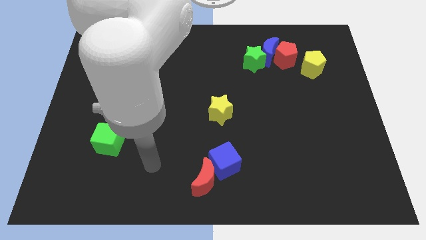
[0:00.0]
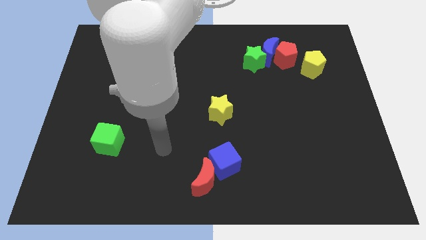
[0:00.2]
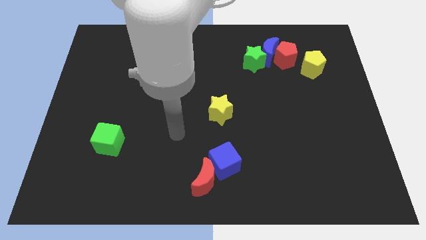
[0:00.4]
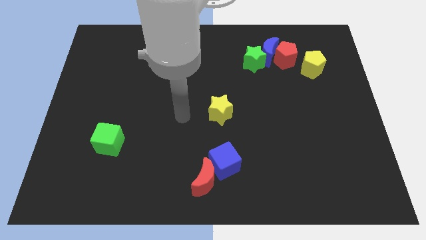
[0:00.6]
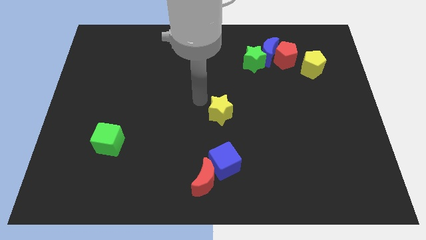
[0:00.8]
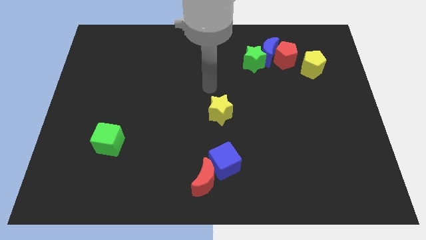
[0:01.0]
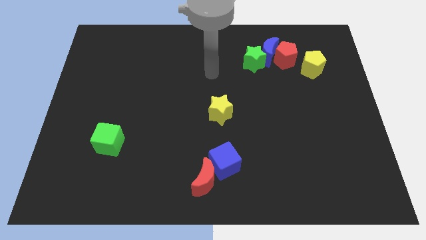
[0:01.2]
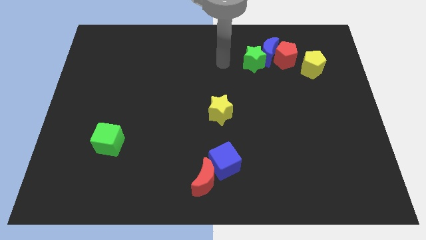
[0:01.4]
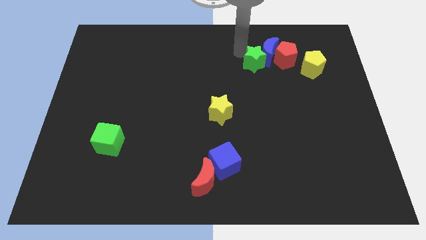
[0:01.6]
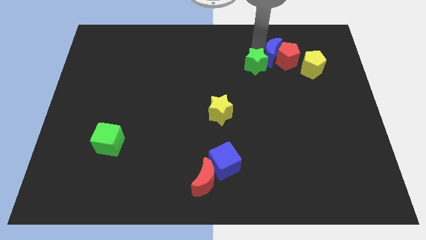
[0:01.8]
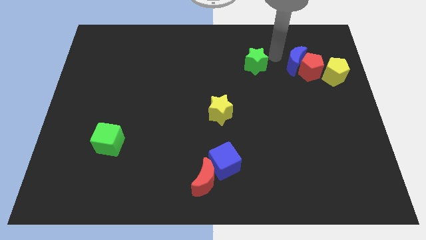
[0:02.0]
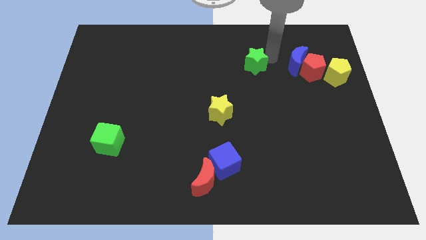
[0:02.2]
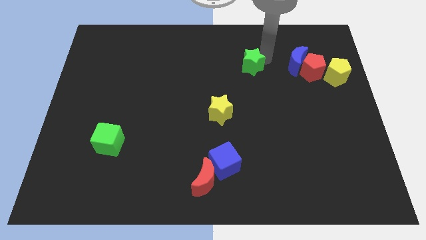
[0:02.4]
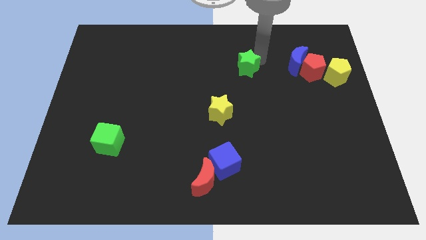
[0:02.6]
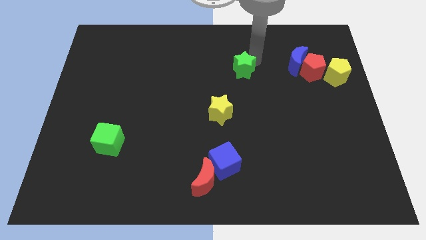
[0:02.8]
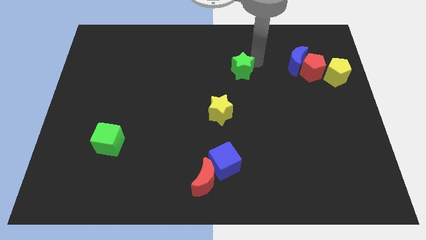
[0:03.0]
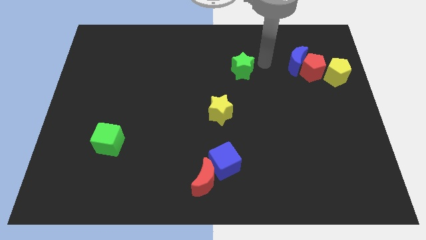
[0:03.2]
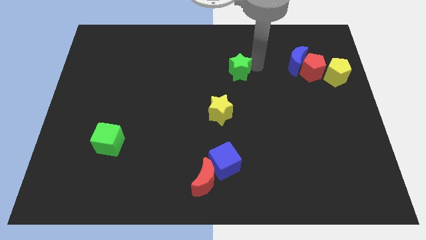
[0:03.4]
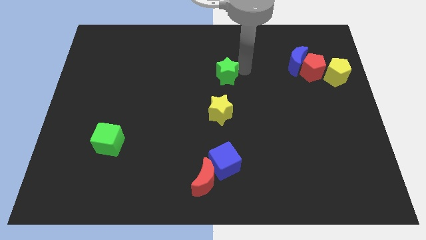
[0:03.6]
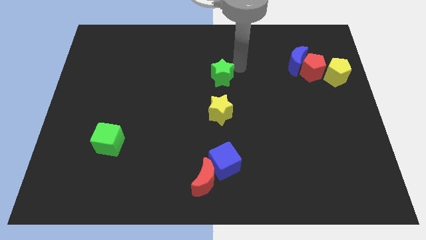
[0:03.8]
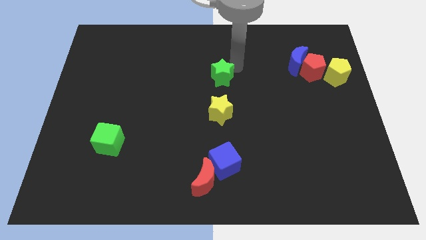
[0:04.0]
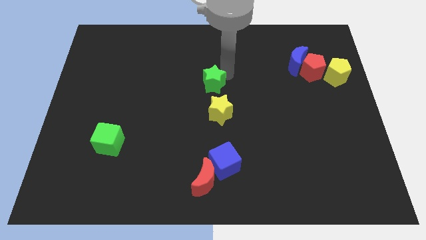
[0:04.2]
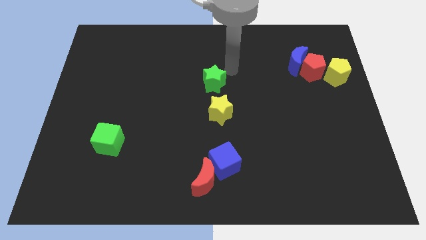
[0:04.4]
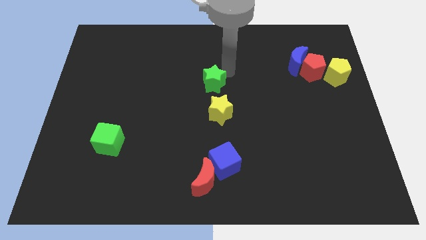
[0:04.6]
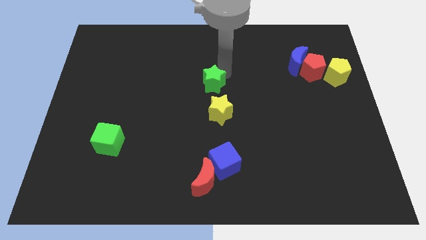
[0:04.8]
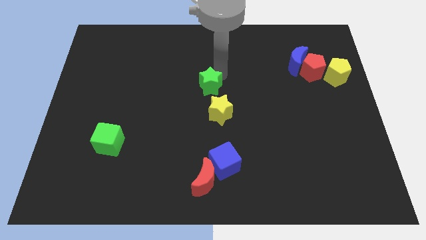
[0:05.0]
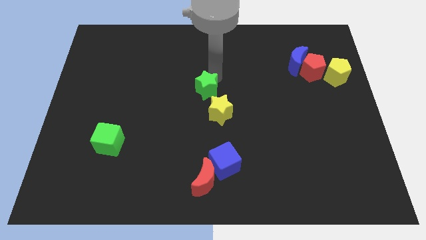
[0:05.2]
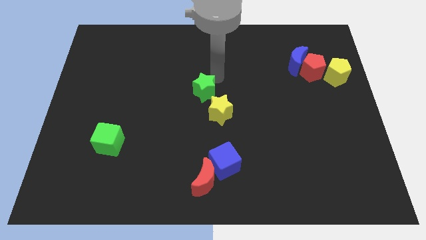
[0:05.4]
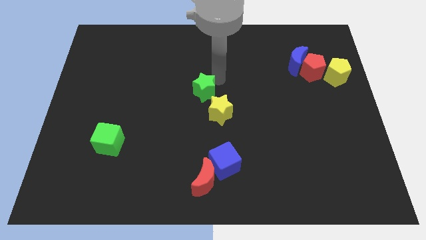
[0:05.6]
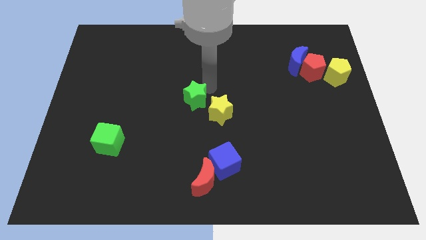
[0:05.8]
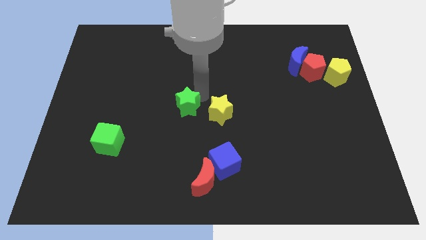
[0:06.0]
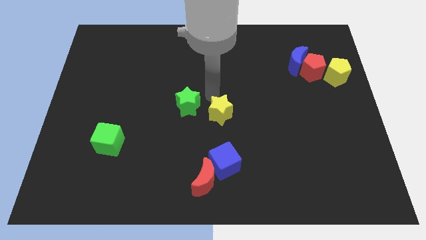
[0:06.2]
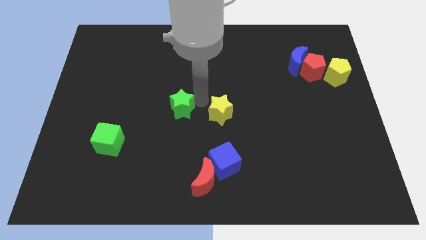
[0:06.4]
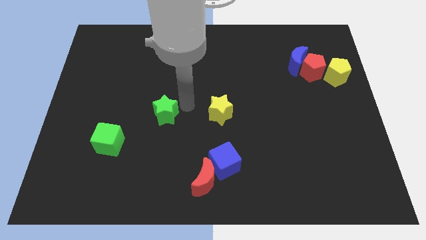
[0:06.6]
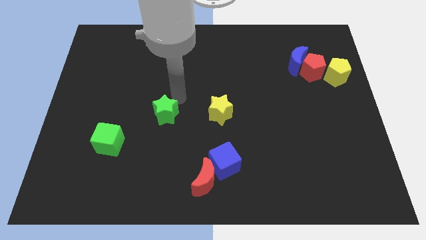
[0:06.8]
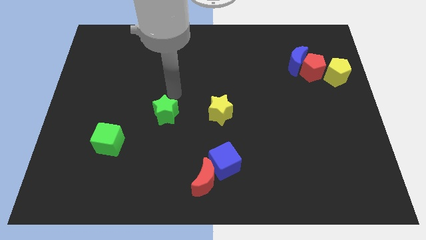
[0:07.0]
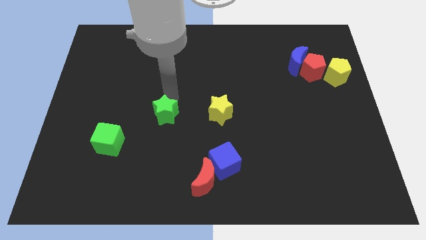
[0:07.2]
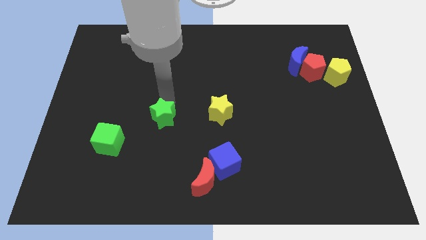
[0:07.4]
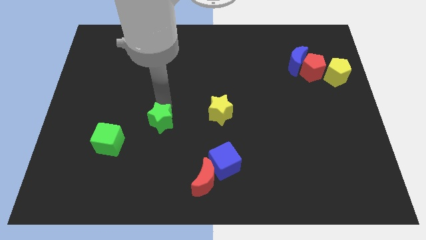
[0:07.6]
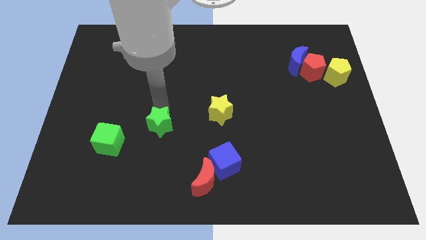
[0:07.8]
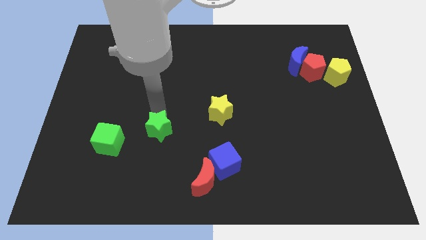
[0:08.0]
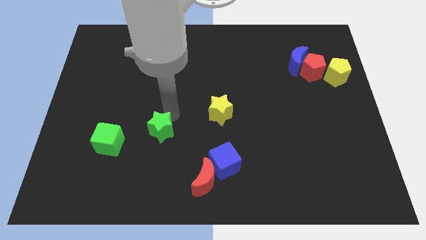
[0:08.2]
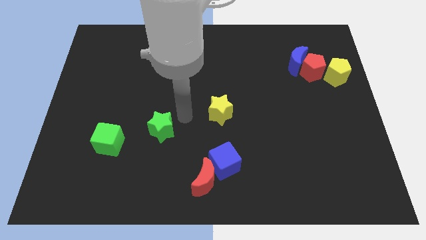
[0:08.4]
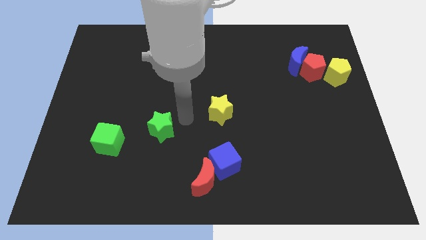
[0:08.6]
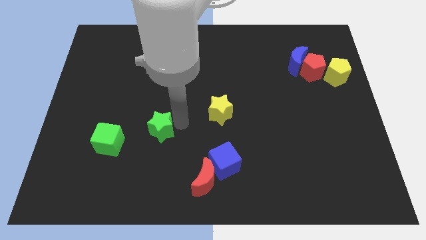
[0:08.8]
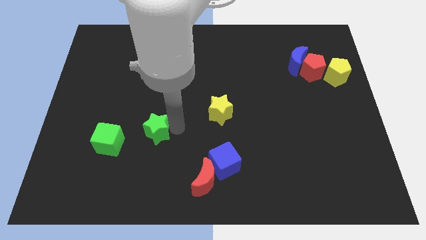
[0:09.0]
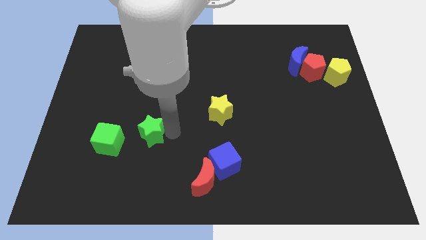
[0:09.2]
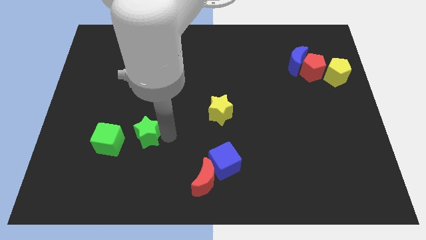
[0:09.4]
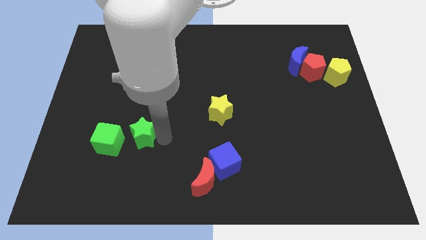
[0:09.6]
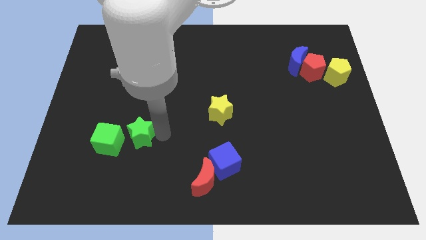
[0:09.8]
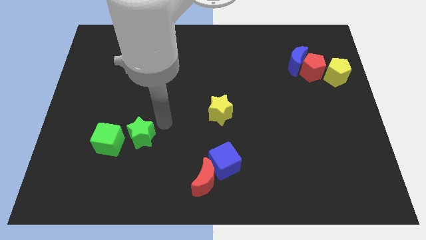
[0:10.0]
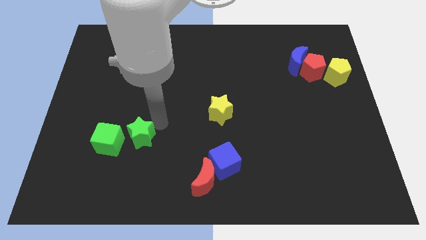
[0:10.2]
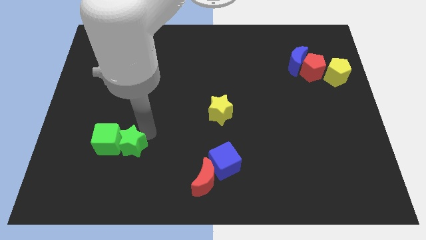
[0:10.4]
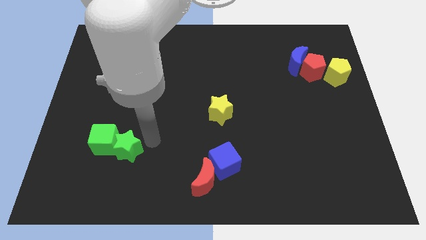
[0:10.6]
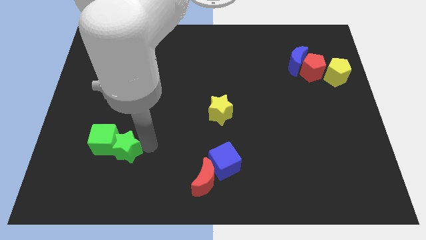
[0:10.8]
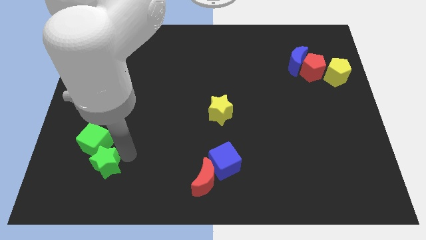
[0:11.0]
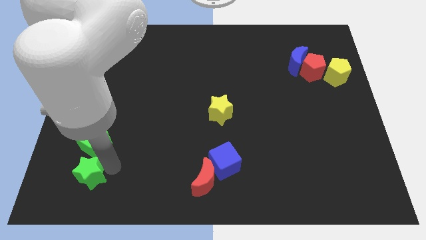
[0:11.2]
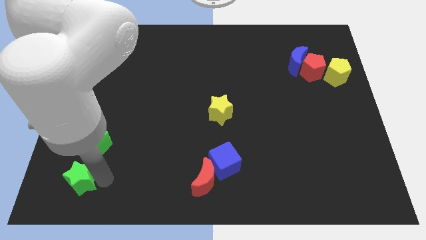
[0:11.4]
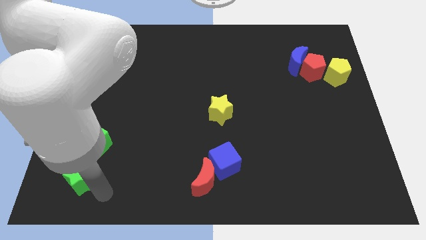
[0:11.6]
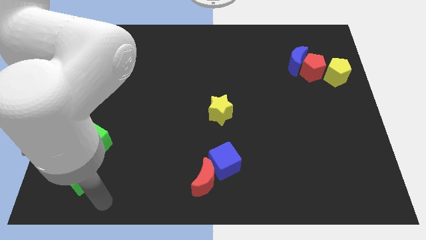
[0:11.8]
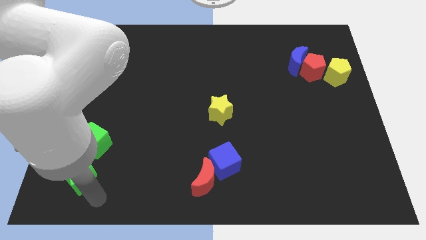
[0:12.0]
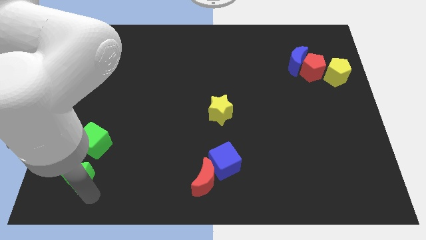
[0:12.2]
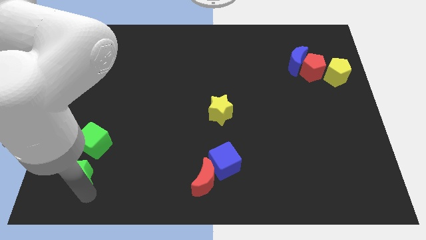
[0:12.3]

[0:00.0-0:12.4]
move the green star diagonally down and to the left of the green cube

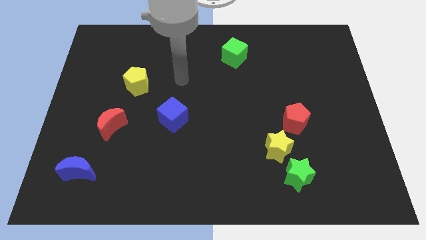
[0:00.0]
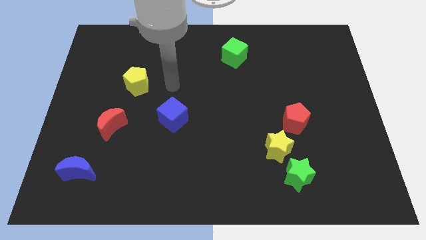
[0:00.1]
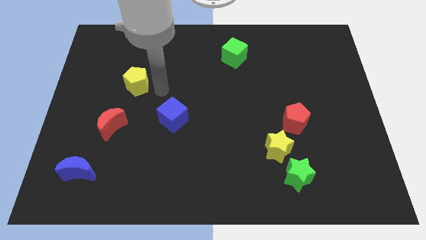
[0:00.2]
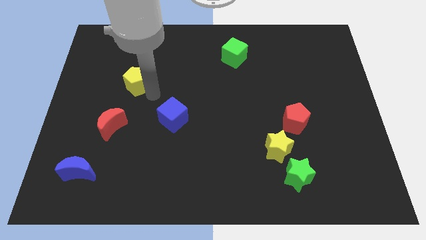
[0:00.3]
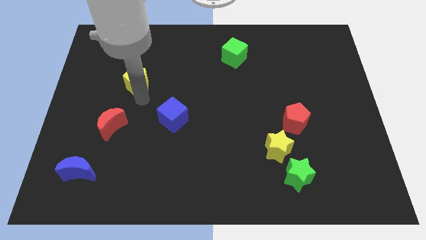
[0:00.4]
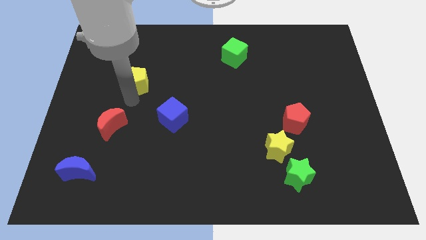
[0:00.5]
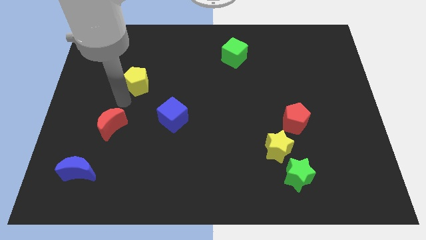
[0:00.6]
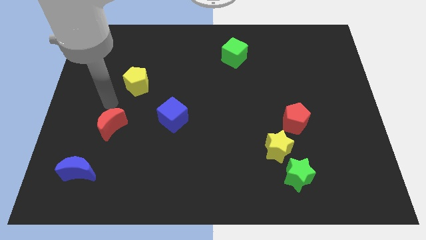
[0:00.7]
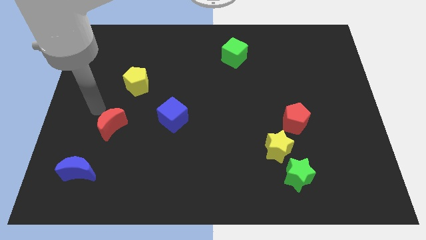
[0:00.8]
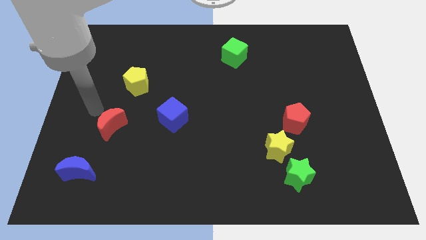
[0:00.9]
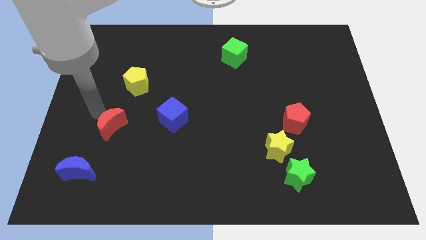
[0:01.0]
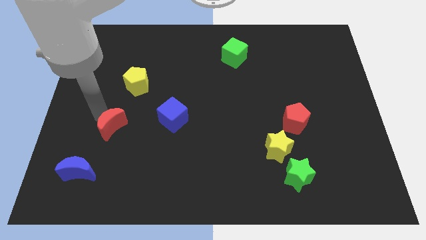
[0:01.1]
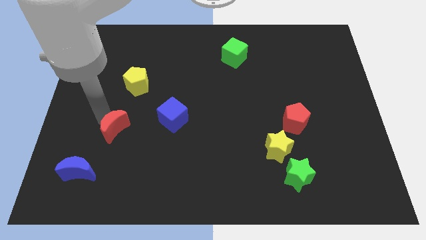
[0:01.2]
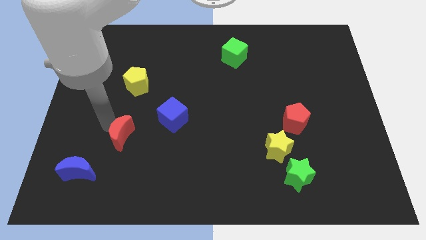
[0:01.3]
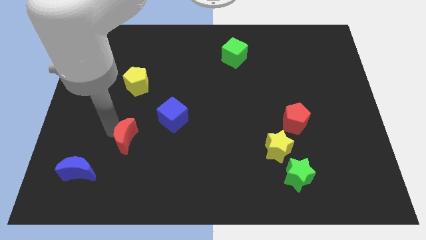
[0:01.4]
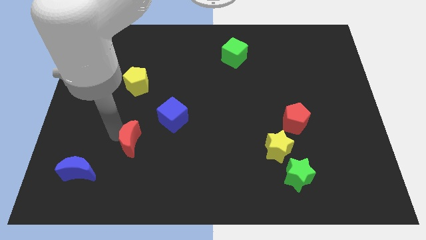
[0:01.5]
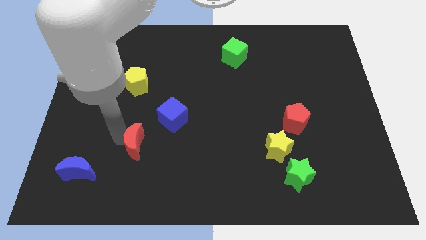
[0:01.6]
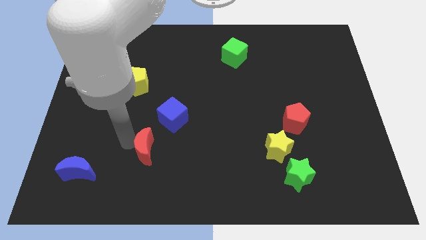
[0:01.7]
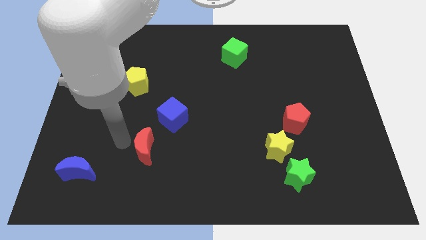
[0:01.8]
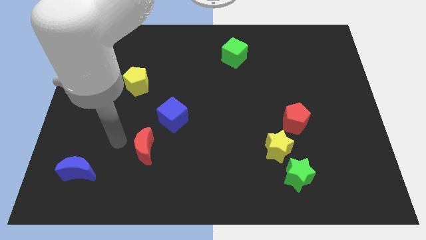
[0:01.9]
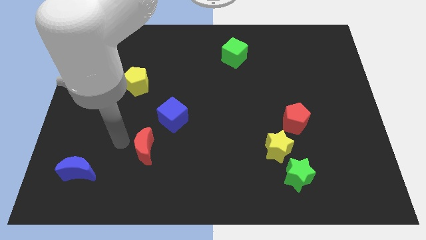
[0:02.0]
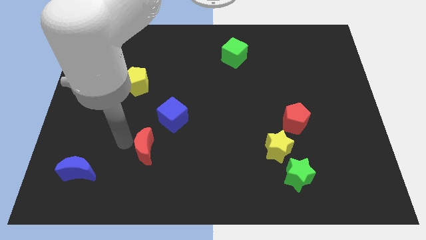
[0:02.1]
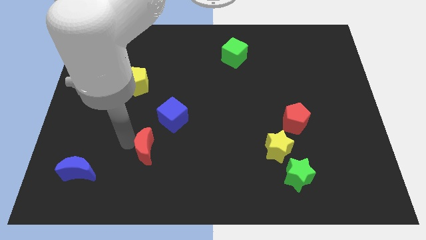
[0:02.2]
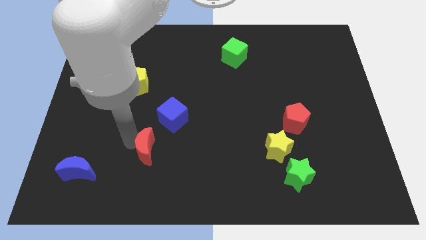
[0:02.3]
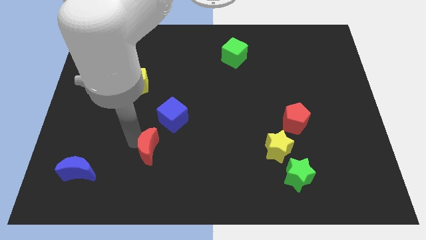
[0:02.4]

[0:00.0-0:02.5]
push the red moon to the bottom side of the blue cube
